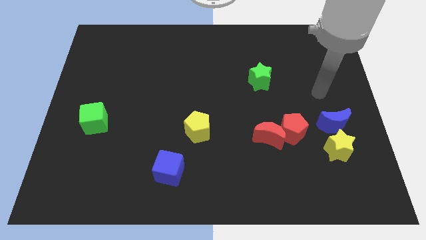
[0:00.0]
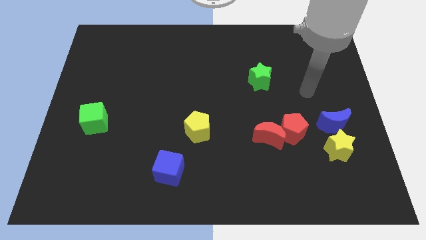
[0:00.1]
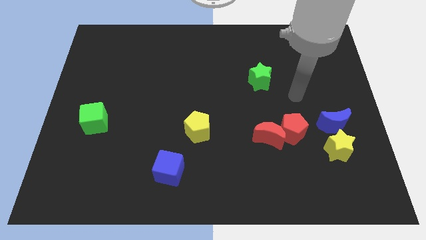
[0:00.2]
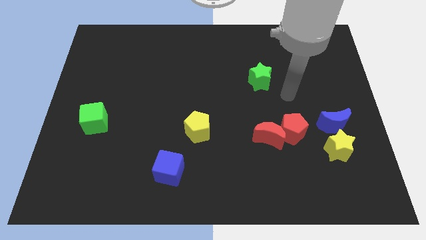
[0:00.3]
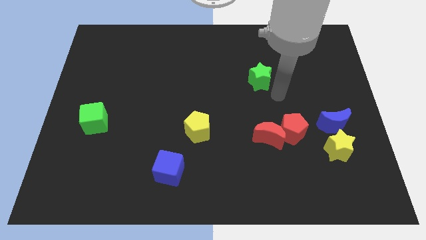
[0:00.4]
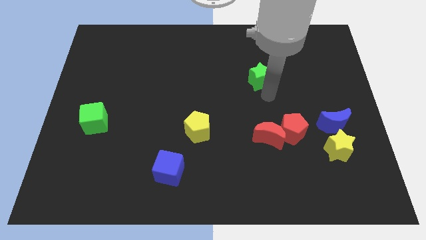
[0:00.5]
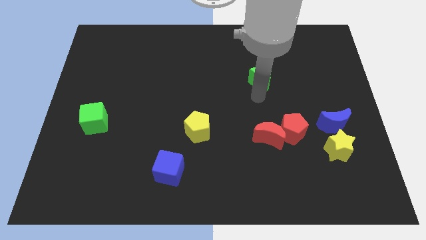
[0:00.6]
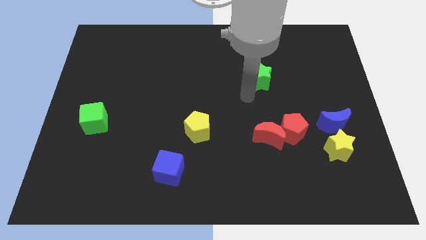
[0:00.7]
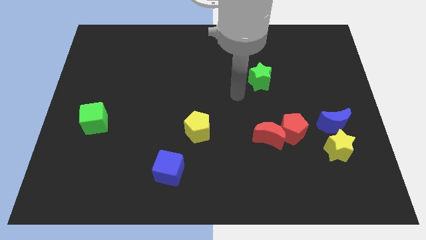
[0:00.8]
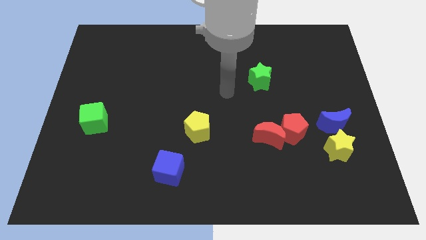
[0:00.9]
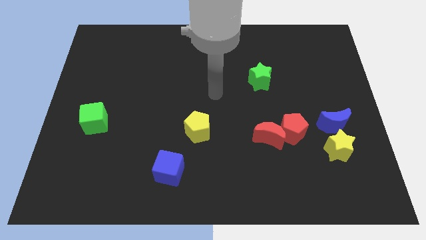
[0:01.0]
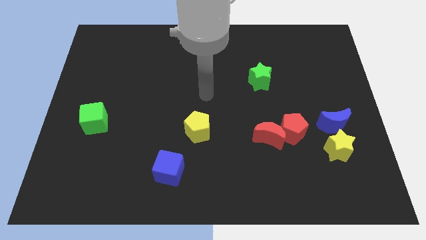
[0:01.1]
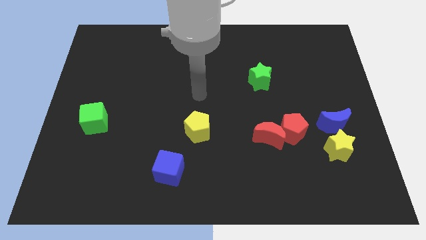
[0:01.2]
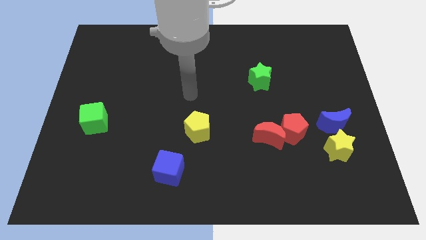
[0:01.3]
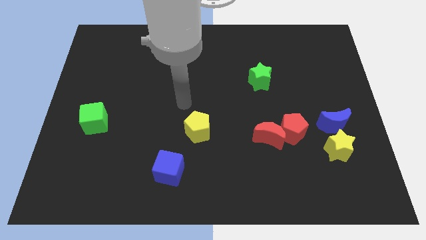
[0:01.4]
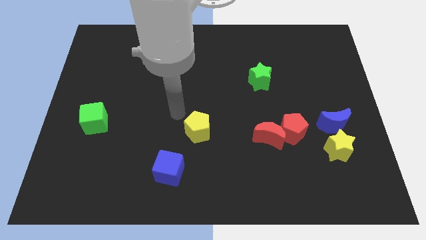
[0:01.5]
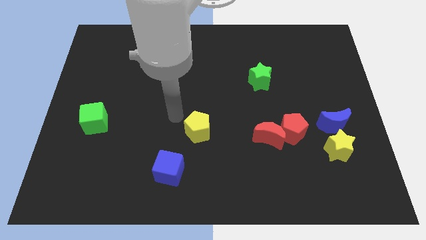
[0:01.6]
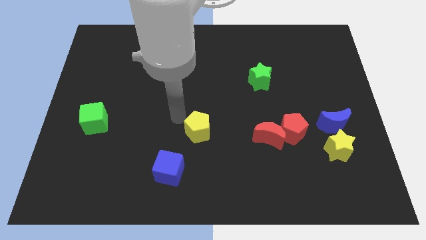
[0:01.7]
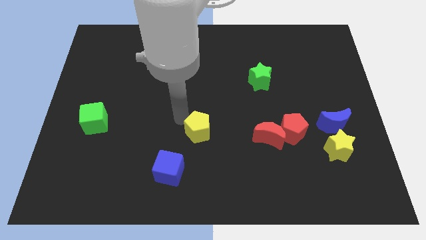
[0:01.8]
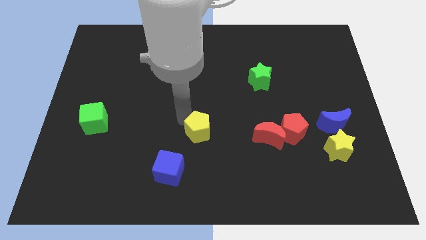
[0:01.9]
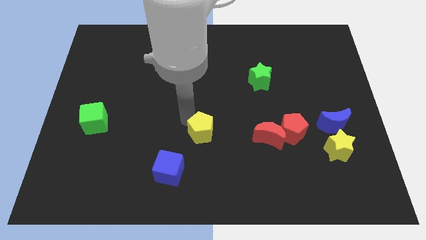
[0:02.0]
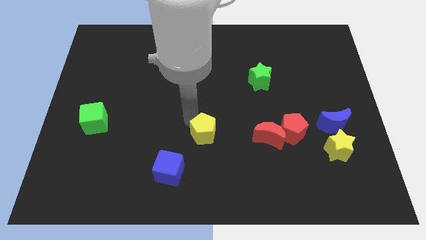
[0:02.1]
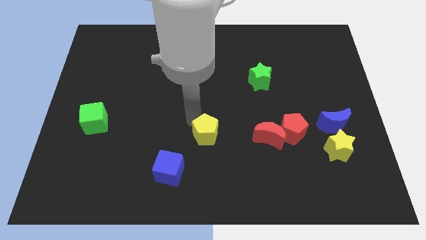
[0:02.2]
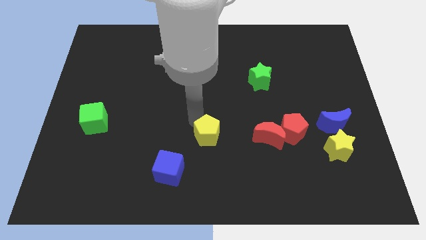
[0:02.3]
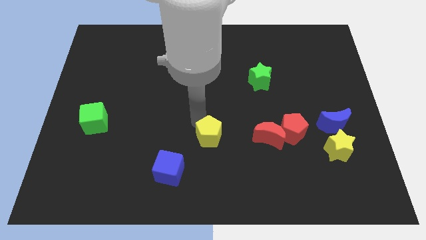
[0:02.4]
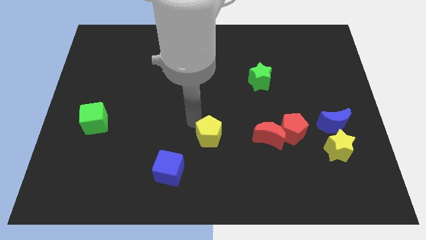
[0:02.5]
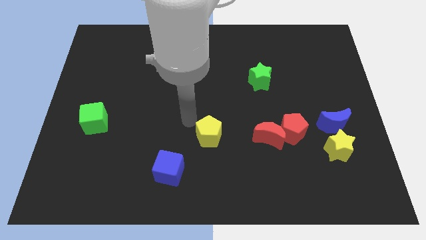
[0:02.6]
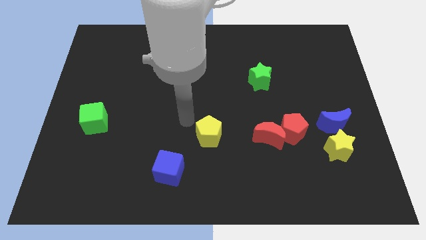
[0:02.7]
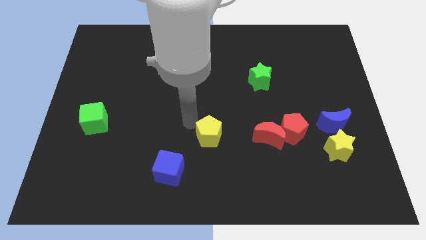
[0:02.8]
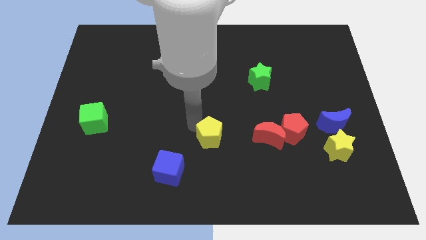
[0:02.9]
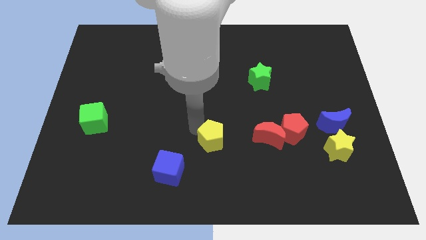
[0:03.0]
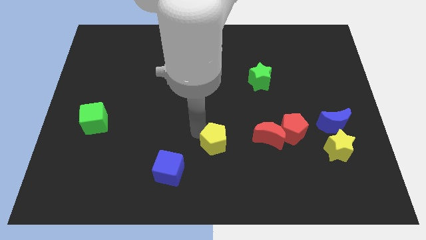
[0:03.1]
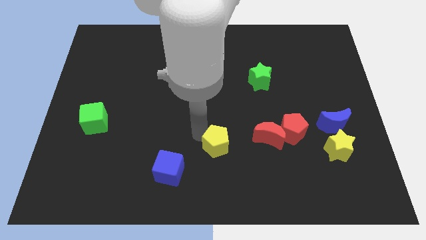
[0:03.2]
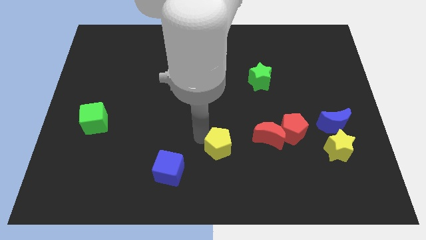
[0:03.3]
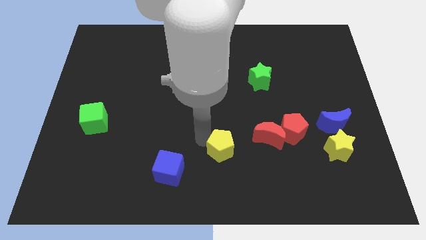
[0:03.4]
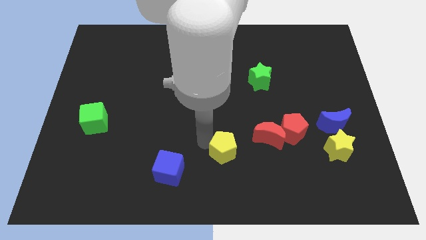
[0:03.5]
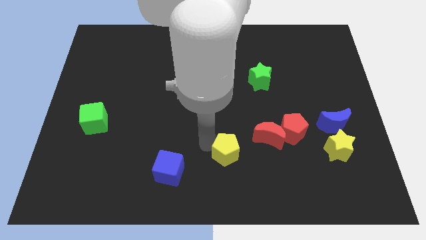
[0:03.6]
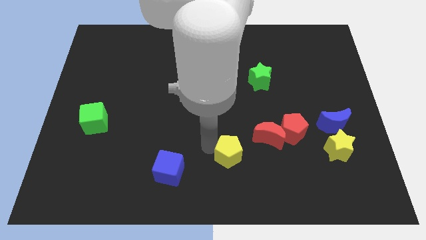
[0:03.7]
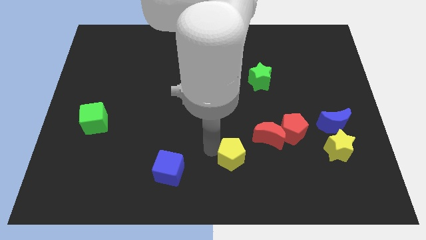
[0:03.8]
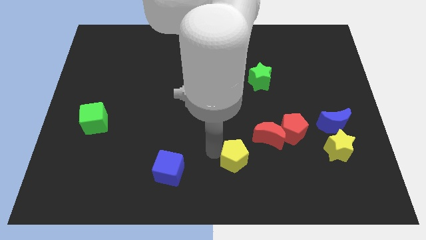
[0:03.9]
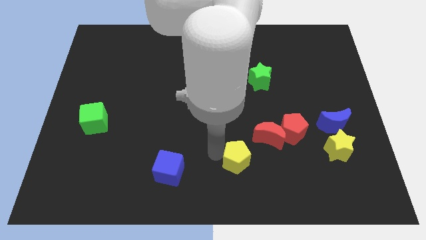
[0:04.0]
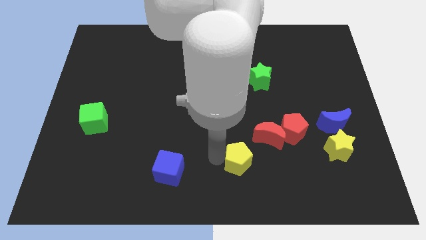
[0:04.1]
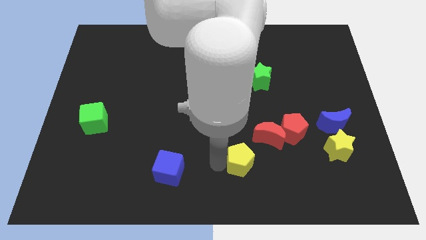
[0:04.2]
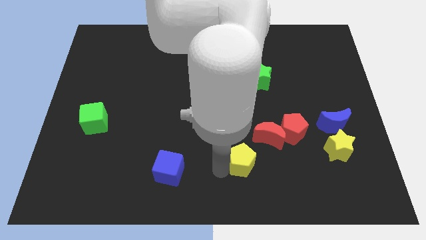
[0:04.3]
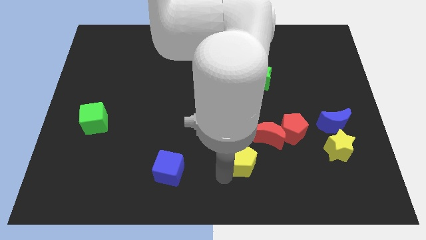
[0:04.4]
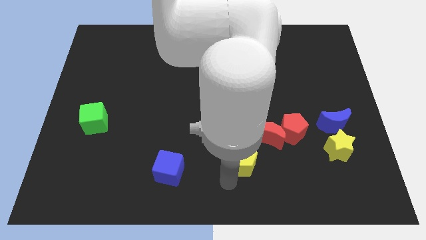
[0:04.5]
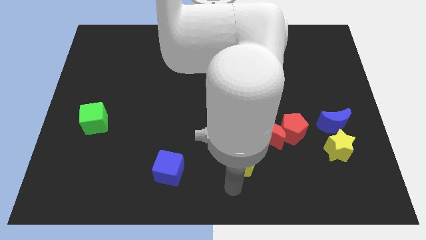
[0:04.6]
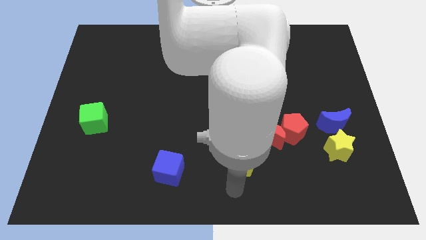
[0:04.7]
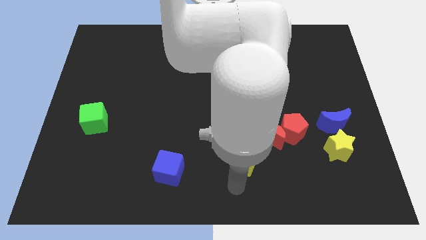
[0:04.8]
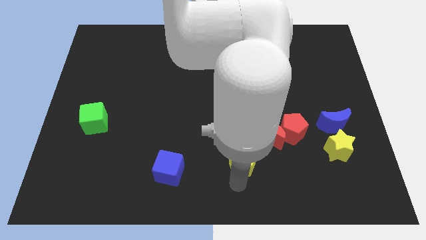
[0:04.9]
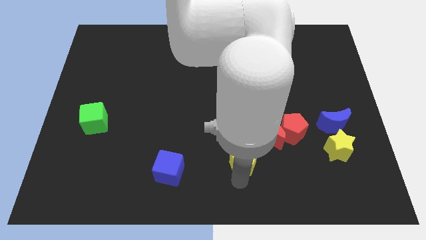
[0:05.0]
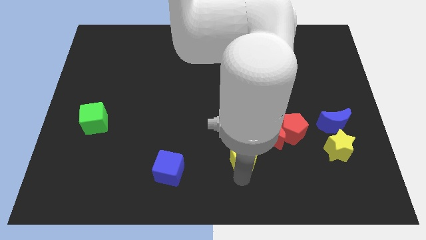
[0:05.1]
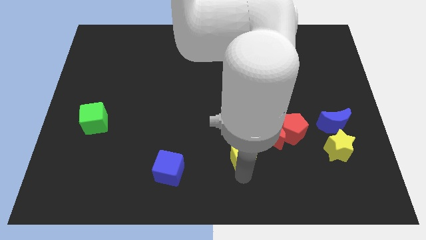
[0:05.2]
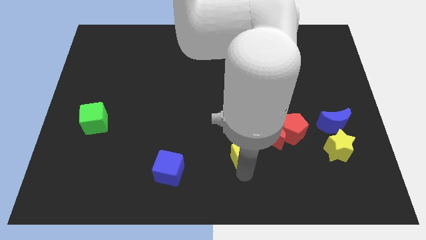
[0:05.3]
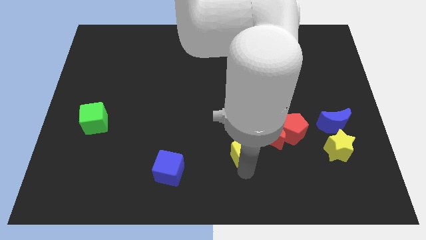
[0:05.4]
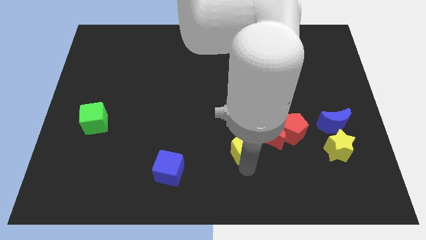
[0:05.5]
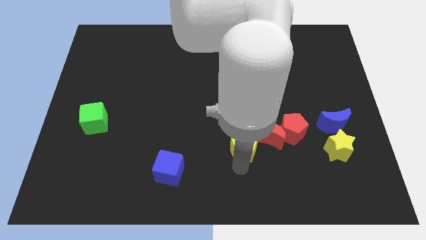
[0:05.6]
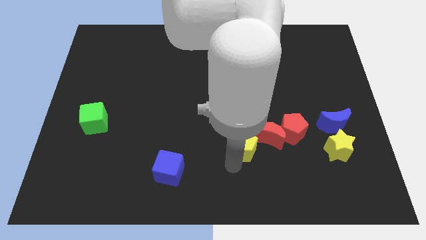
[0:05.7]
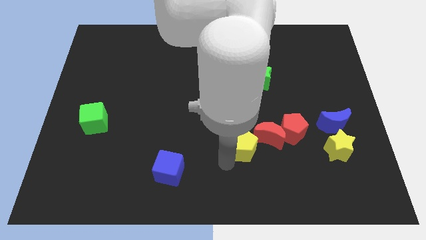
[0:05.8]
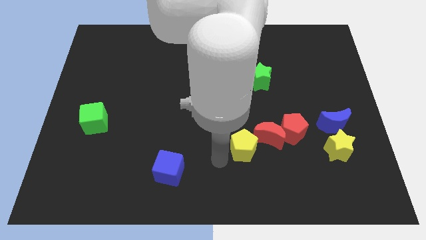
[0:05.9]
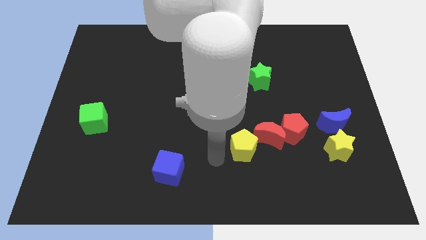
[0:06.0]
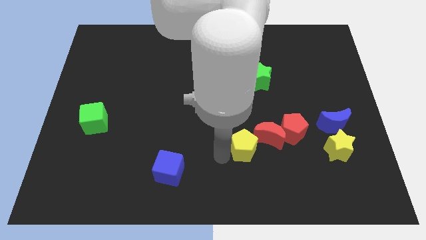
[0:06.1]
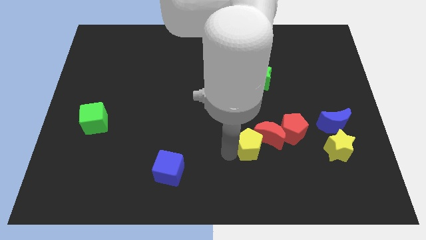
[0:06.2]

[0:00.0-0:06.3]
push the yellow pentagon close to the red moon

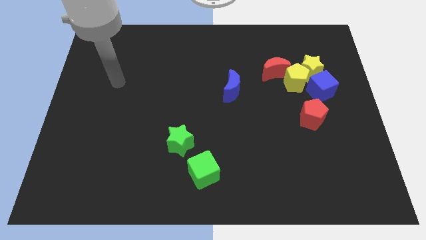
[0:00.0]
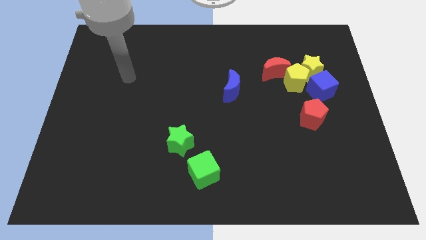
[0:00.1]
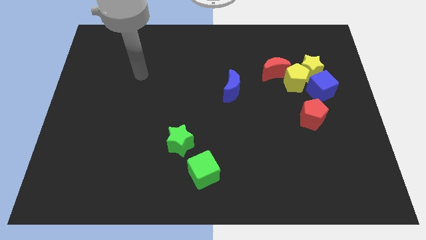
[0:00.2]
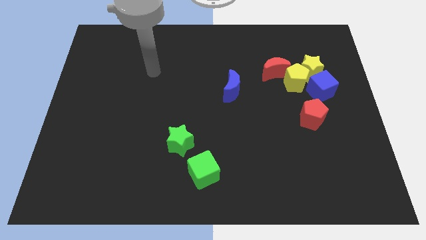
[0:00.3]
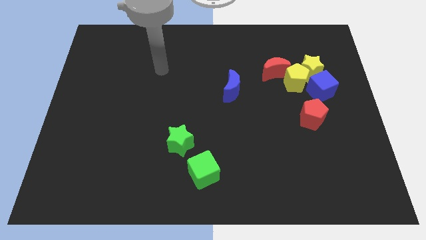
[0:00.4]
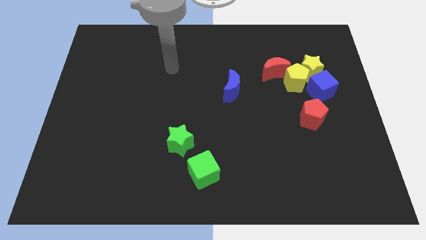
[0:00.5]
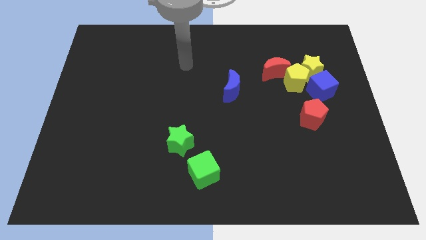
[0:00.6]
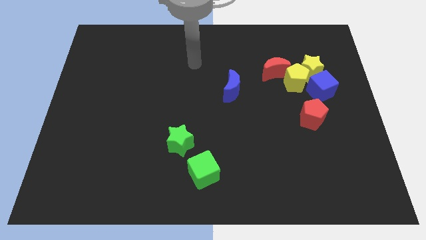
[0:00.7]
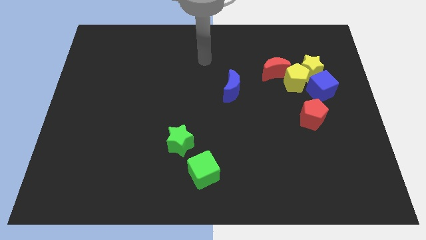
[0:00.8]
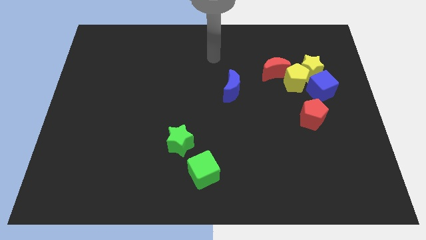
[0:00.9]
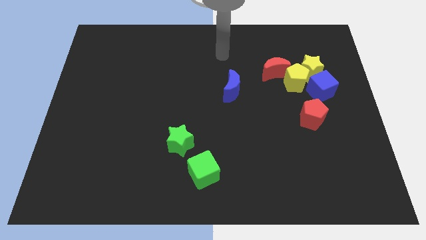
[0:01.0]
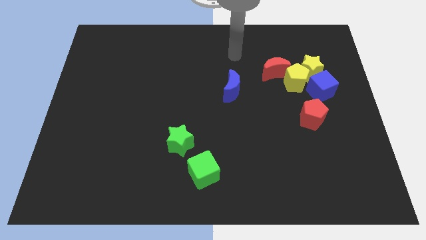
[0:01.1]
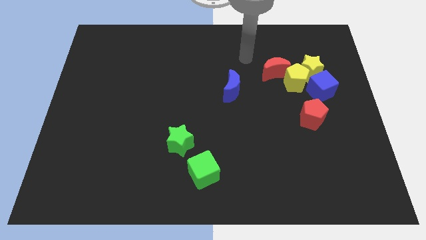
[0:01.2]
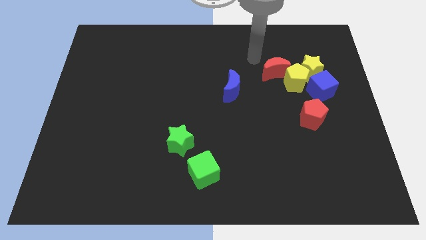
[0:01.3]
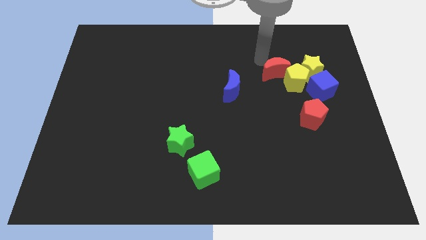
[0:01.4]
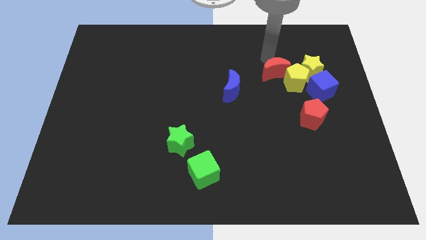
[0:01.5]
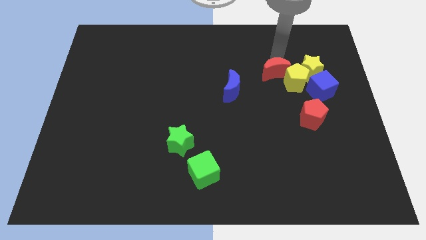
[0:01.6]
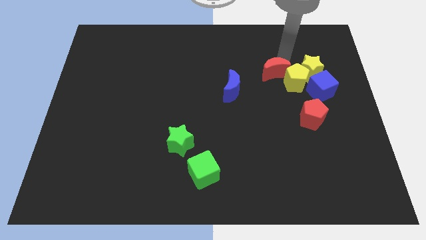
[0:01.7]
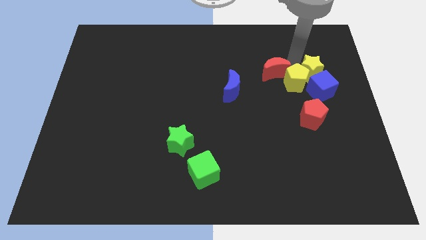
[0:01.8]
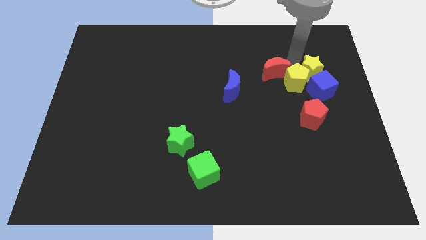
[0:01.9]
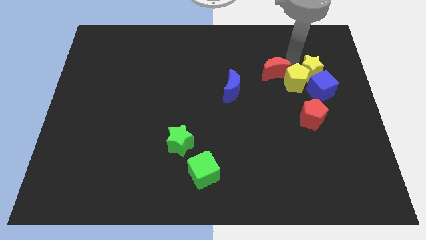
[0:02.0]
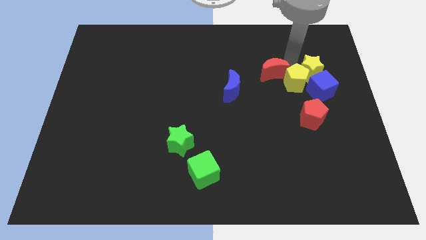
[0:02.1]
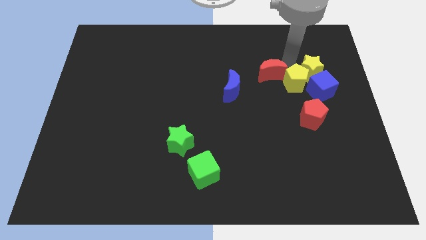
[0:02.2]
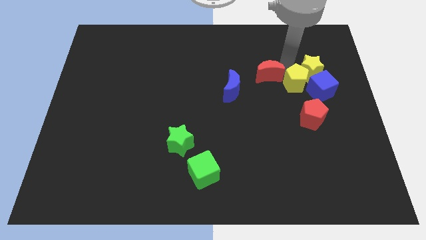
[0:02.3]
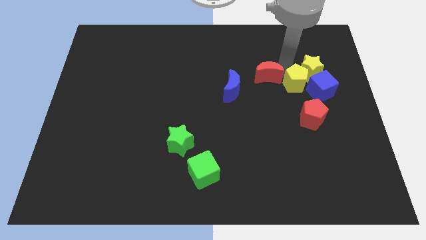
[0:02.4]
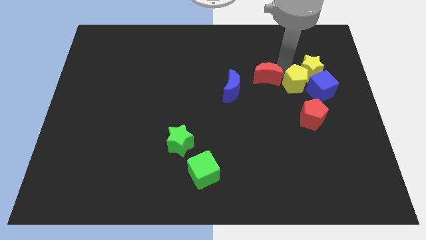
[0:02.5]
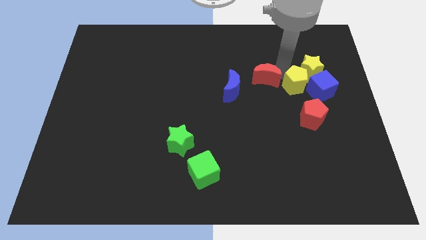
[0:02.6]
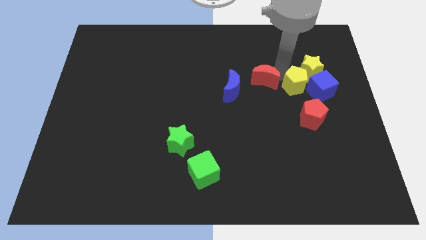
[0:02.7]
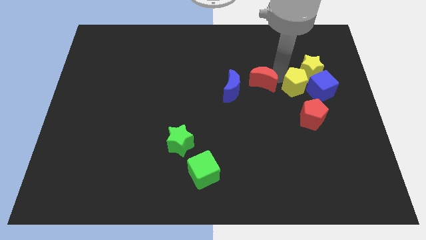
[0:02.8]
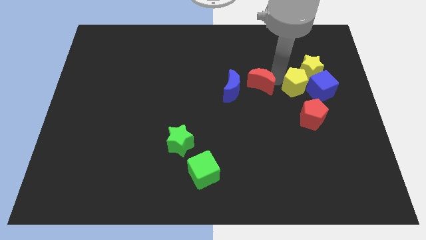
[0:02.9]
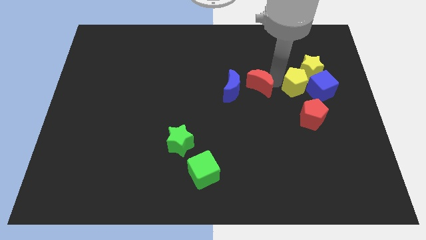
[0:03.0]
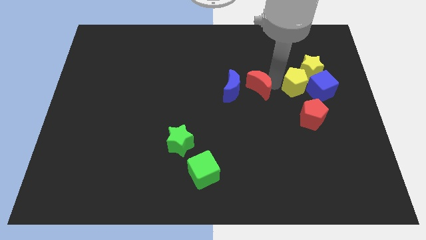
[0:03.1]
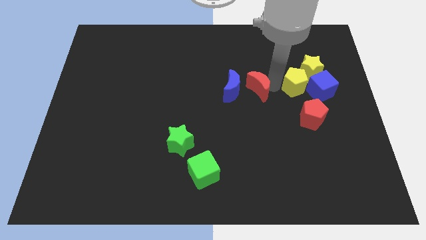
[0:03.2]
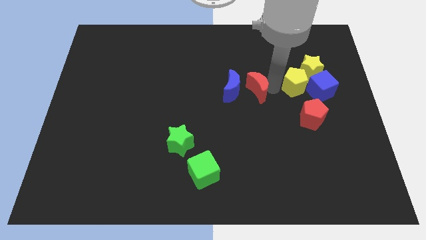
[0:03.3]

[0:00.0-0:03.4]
move the red moon to the blue moon
